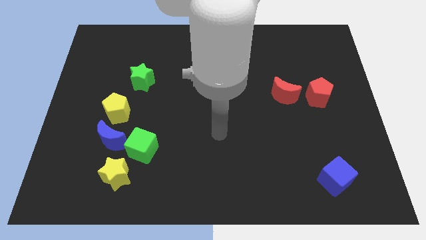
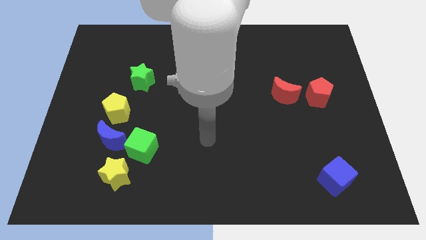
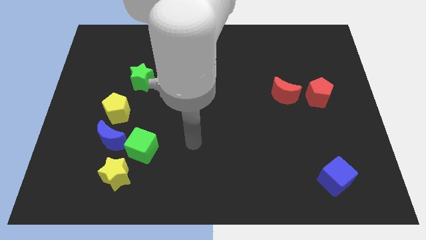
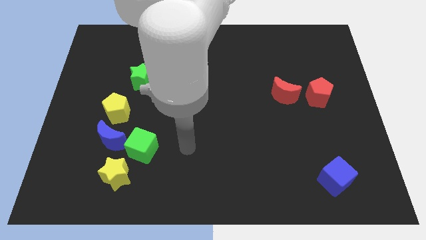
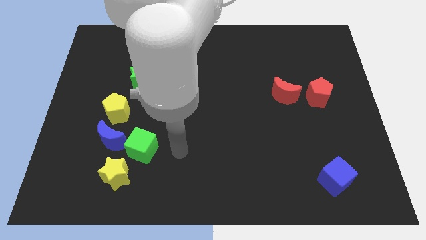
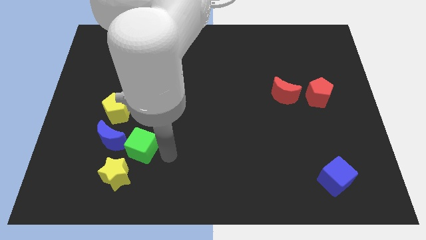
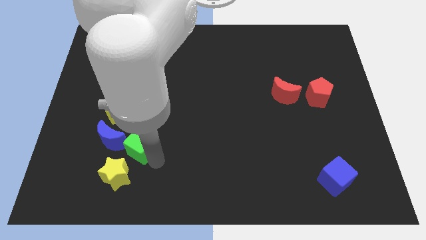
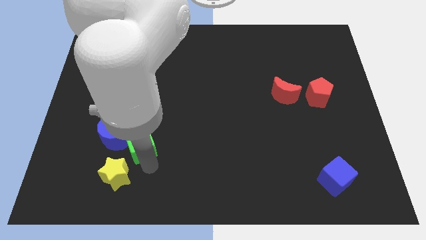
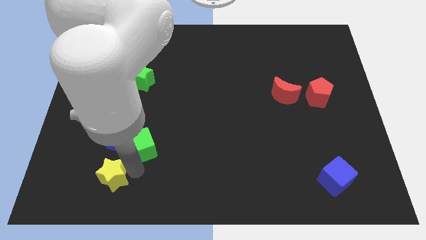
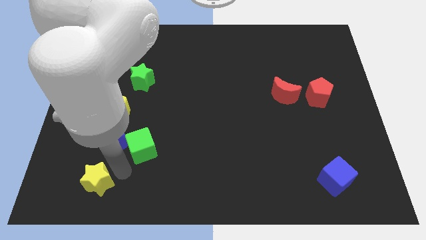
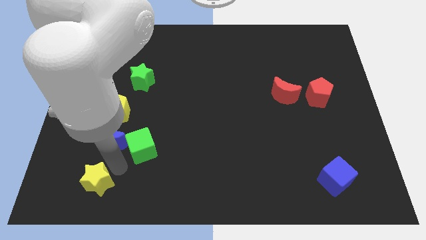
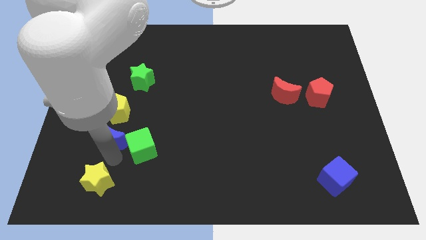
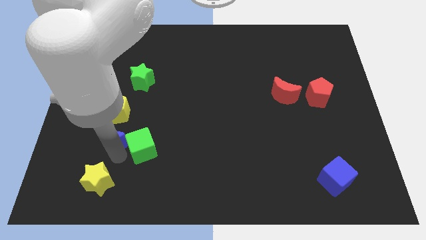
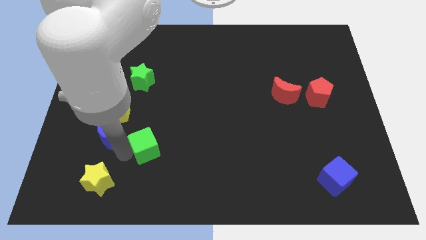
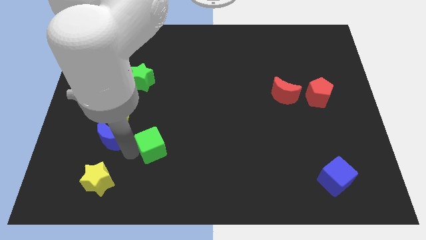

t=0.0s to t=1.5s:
separate the green cube from the blue moon and yellow star

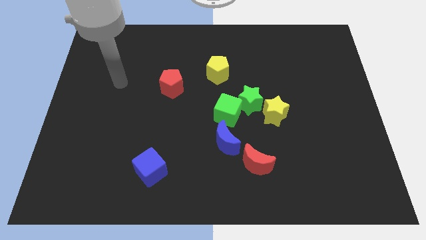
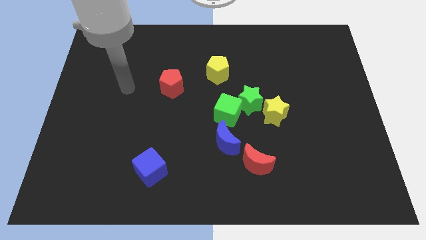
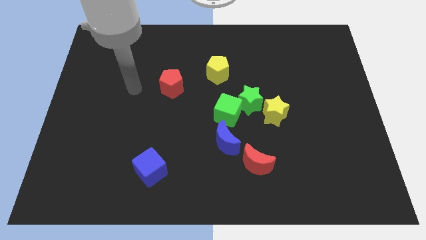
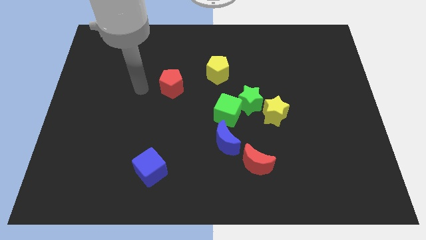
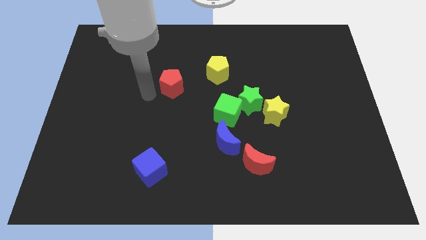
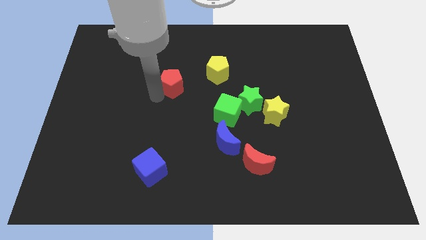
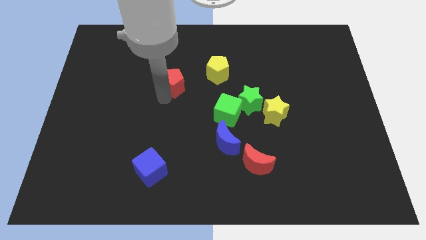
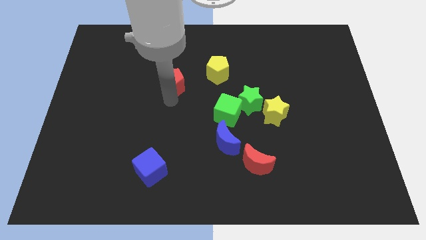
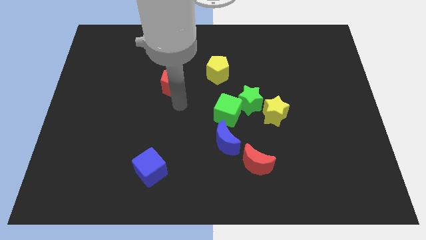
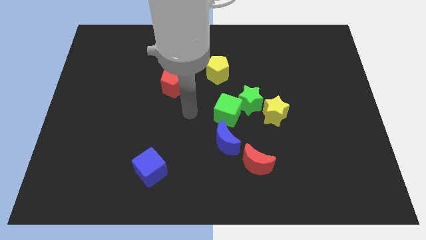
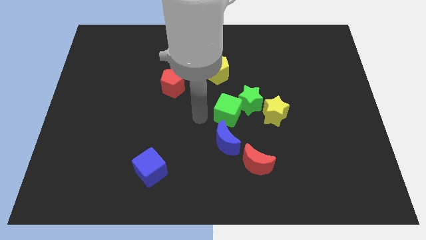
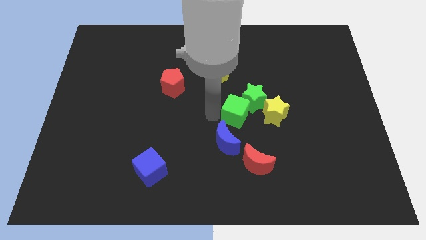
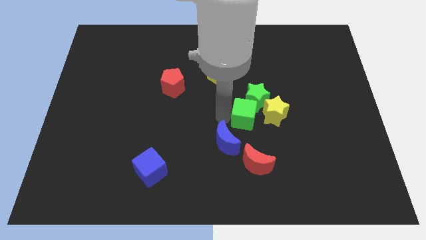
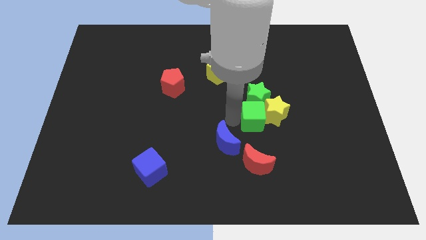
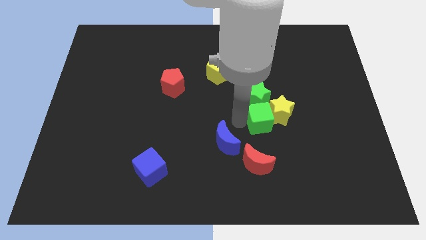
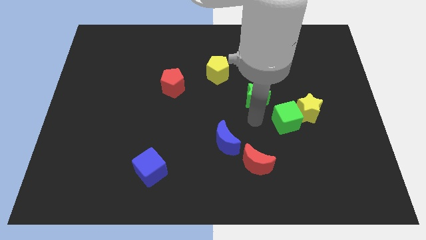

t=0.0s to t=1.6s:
pull the green star apart from the green cube and yellow star

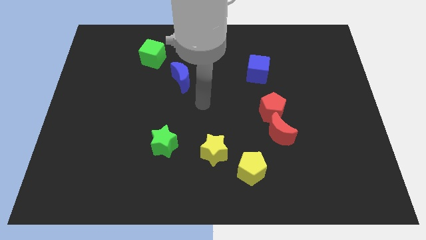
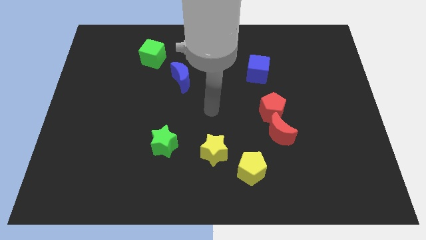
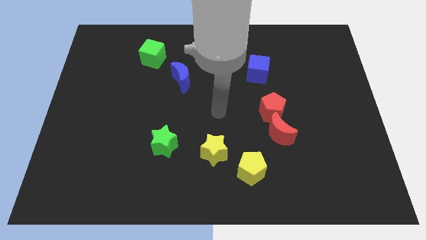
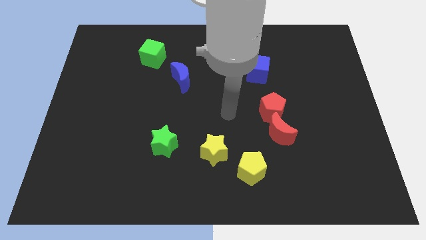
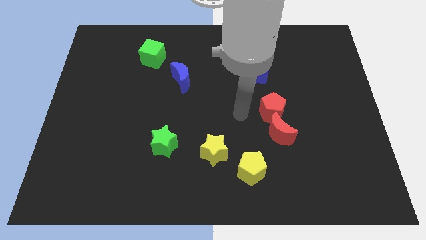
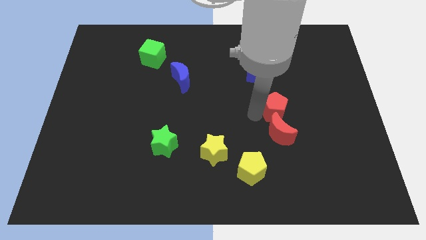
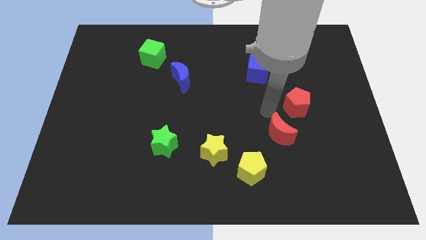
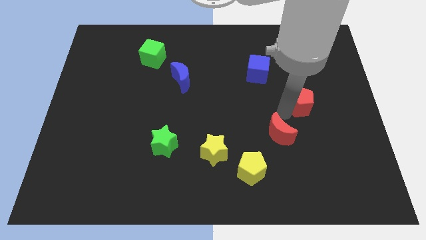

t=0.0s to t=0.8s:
pull the red moon apart from the red pentagon

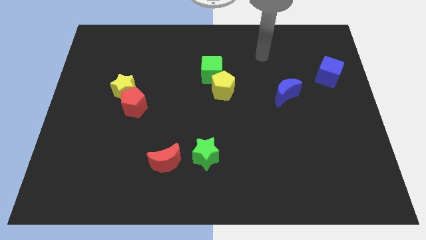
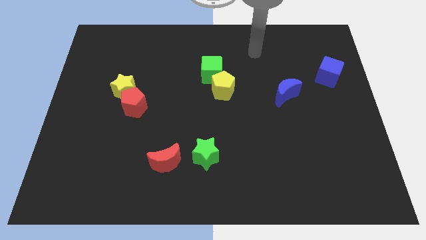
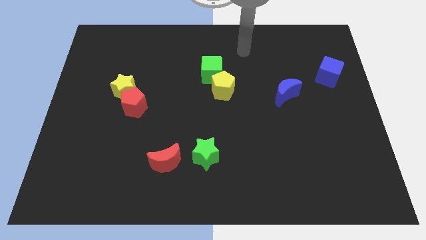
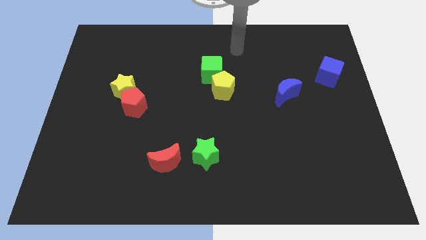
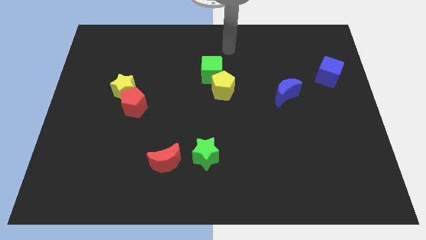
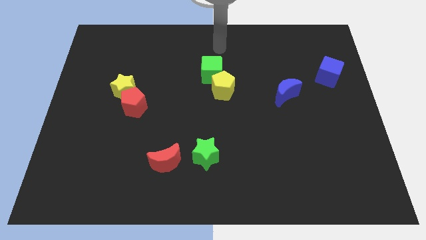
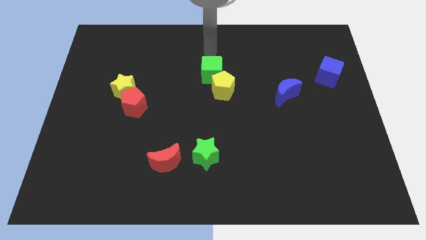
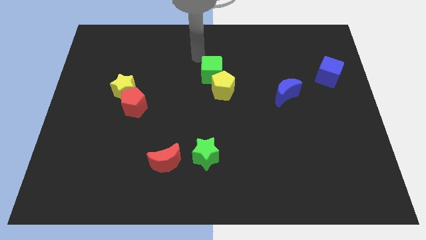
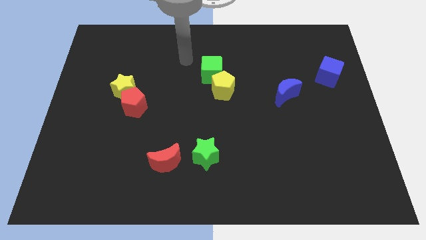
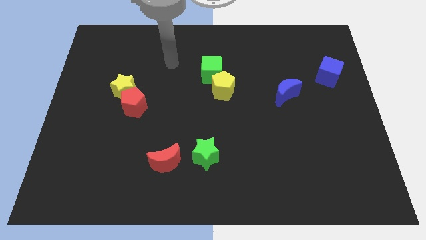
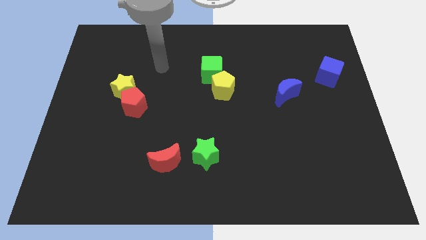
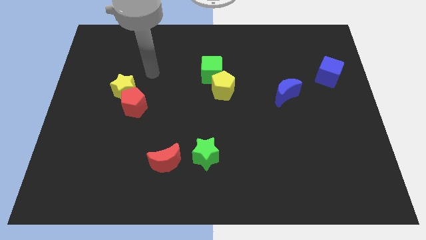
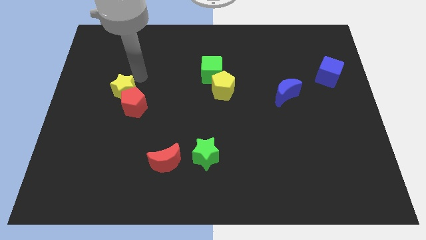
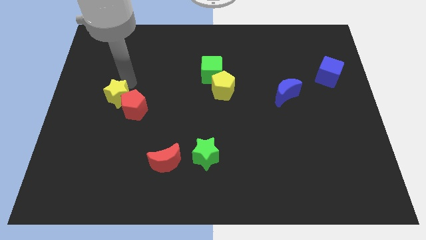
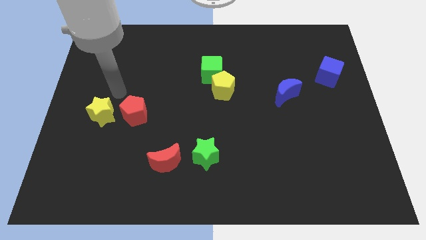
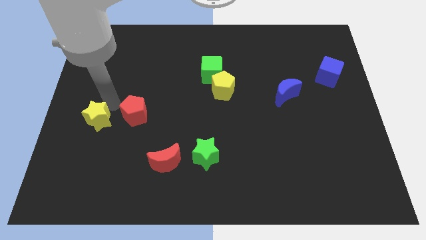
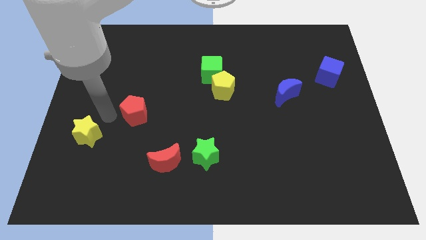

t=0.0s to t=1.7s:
move the red pentagon away from the yellow star

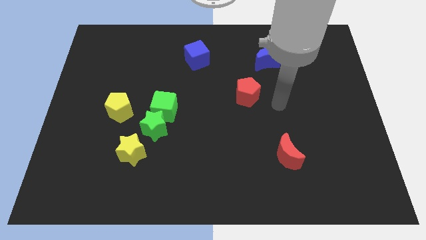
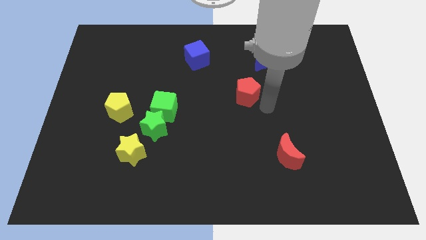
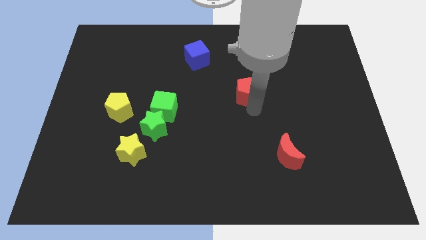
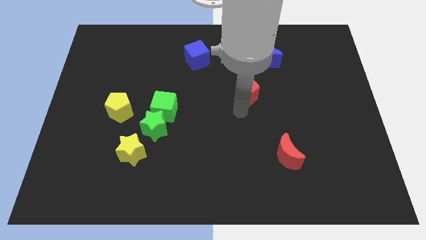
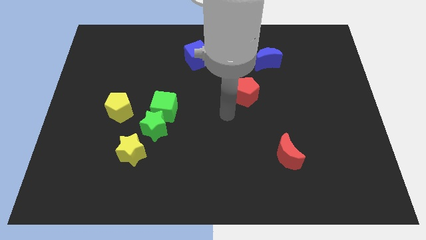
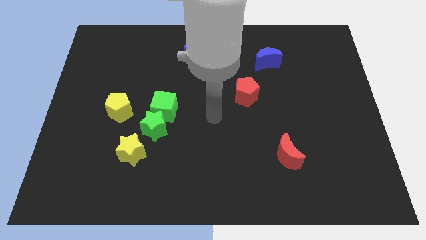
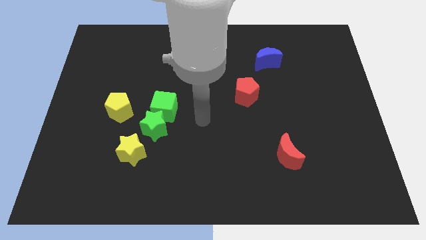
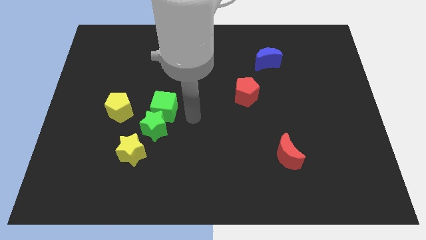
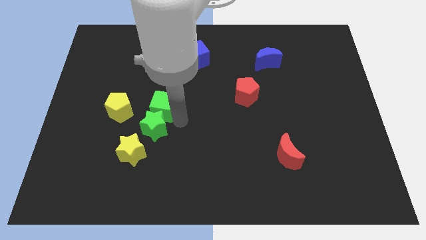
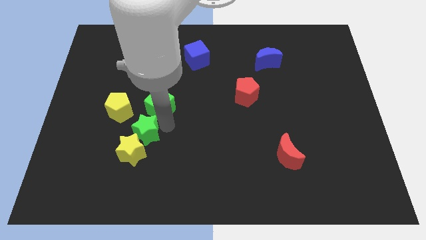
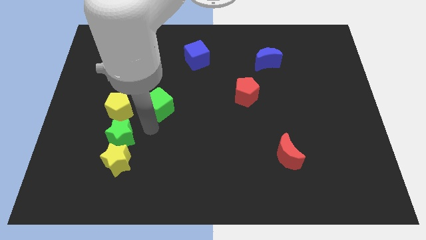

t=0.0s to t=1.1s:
separate the green cube from the green star

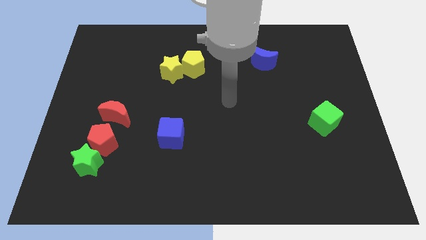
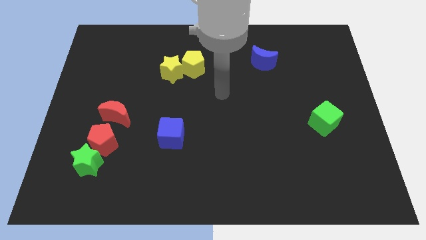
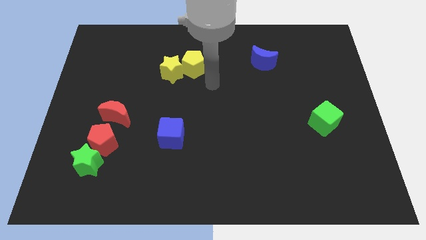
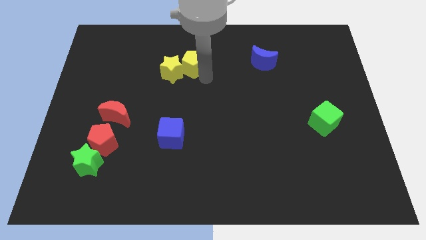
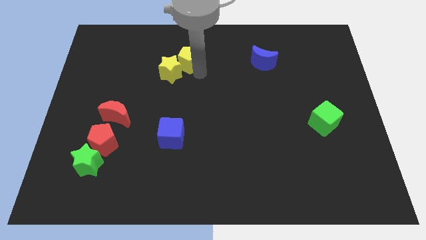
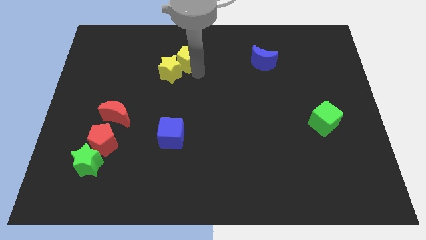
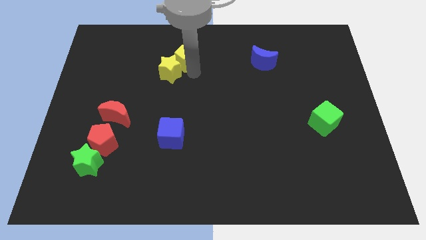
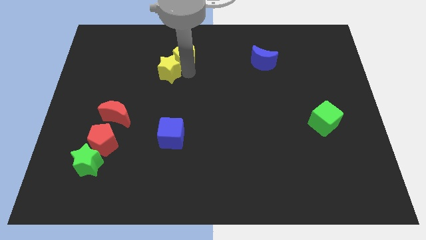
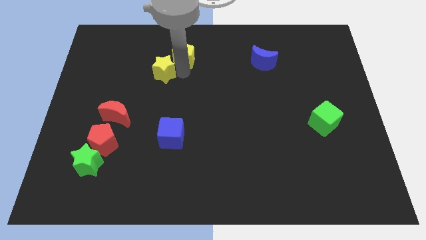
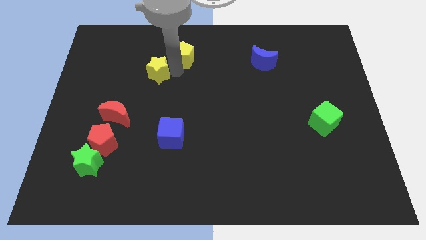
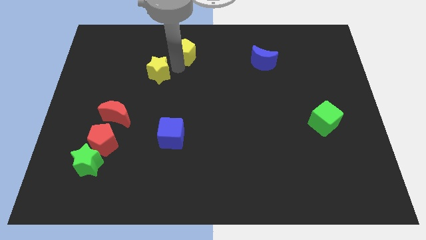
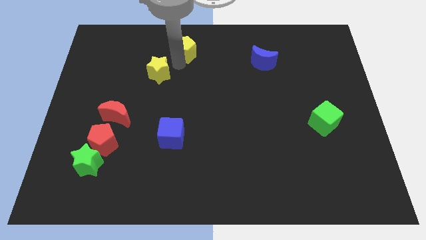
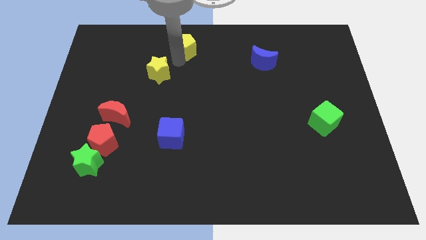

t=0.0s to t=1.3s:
move the yellow star away from the yellow pentagon

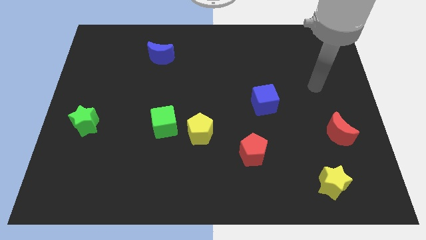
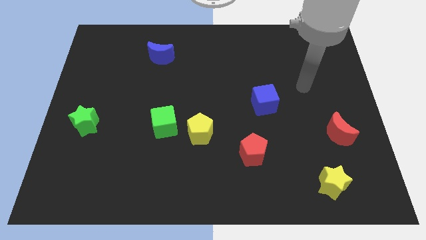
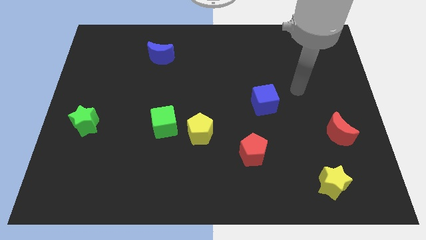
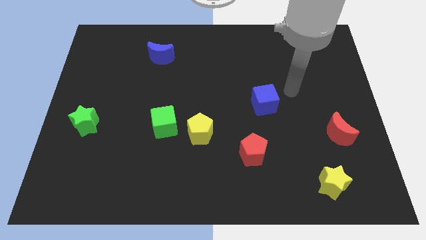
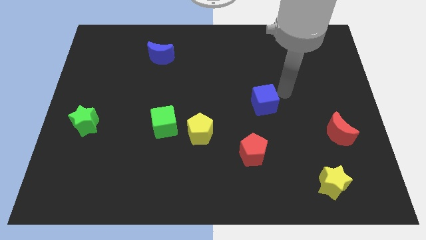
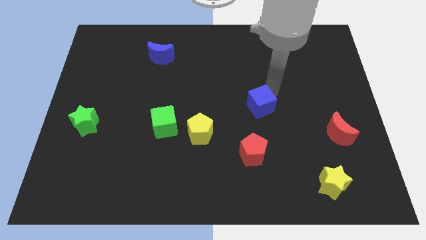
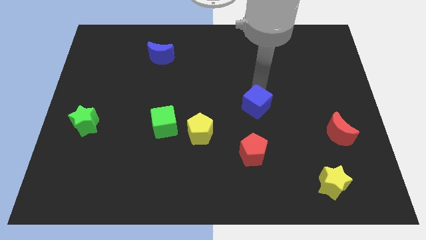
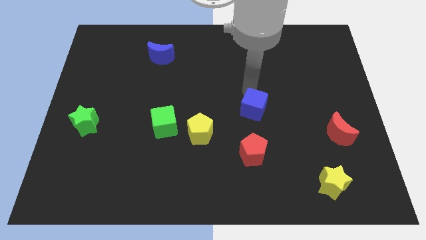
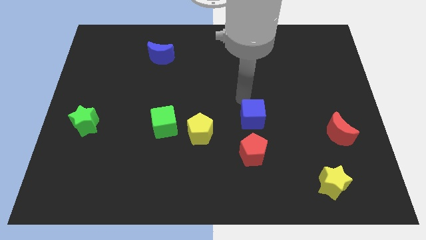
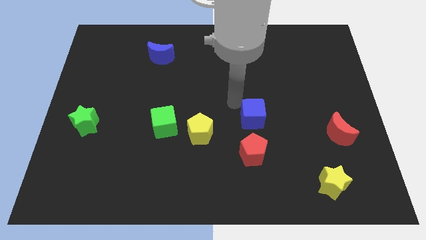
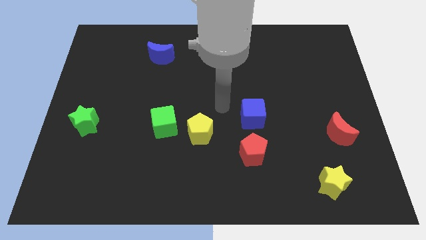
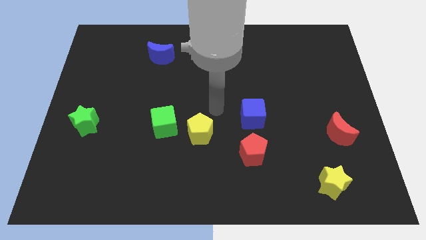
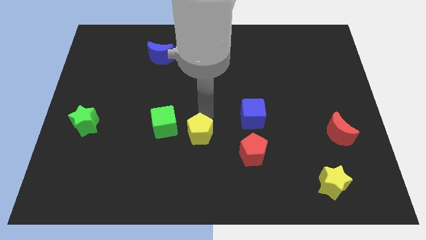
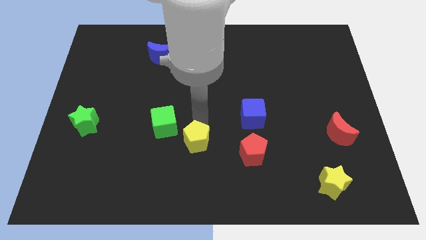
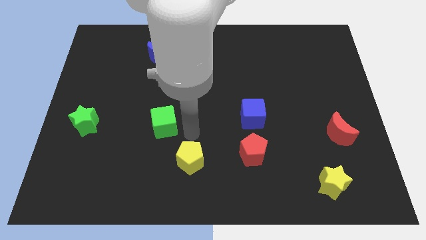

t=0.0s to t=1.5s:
move the green cube away from the yellow pentagon
